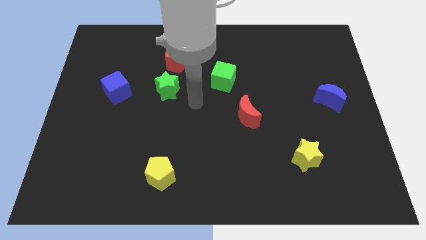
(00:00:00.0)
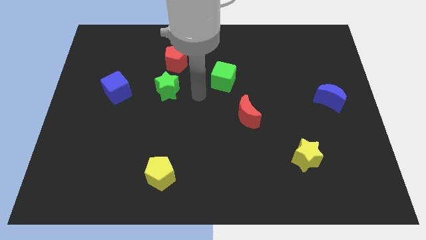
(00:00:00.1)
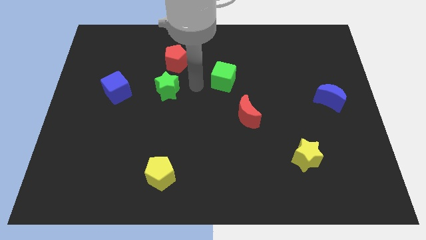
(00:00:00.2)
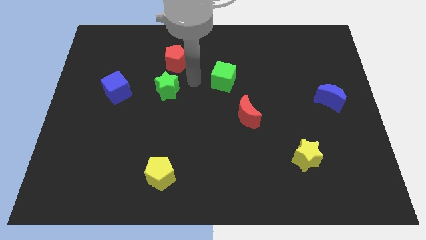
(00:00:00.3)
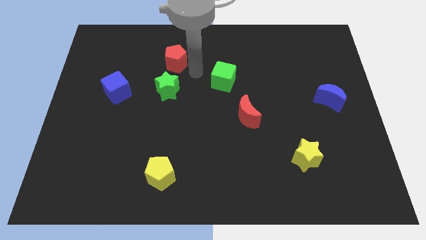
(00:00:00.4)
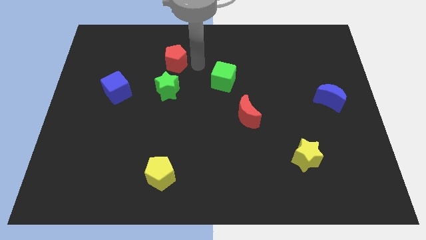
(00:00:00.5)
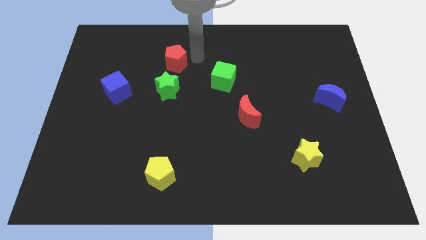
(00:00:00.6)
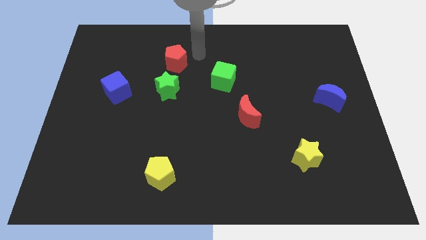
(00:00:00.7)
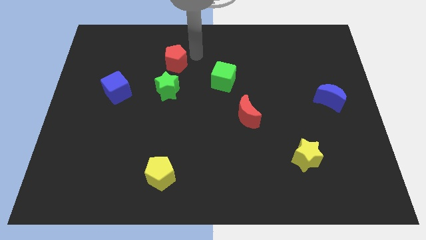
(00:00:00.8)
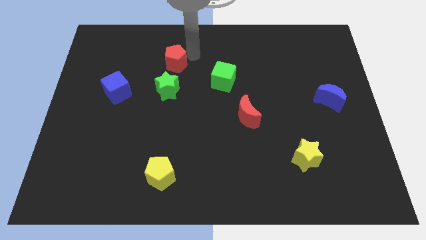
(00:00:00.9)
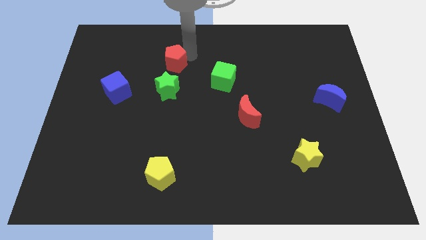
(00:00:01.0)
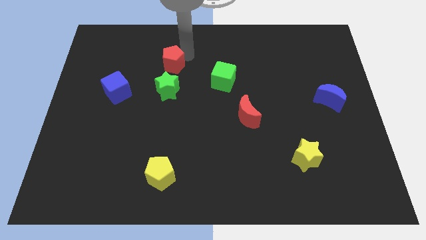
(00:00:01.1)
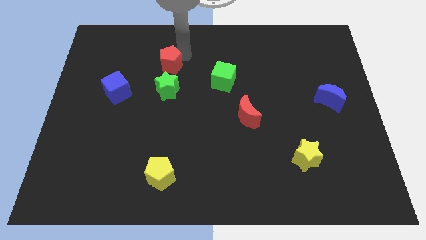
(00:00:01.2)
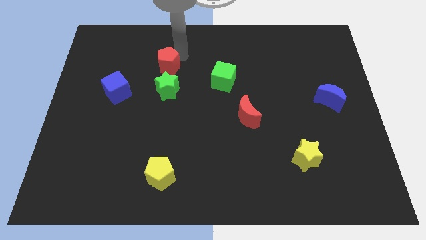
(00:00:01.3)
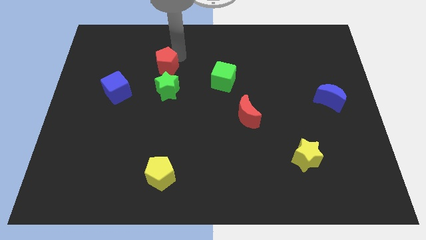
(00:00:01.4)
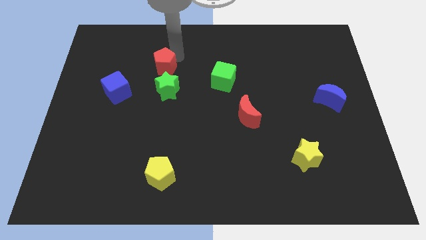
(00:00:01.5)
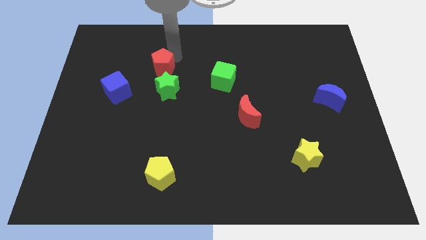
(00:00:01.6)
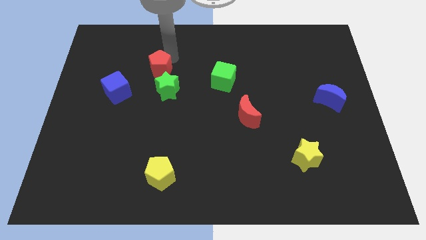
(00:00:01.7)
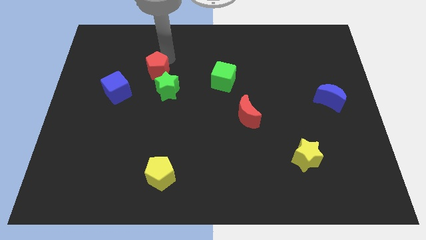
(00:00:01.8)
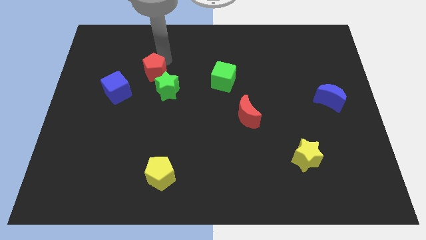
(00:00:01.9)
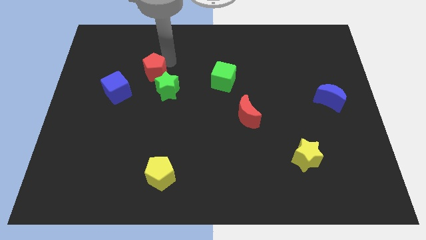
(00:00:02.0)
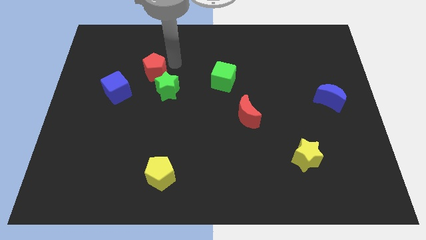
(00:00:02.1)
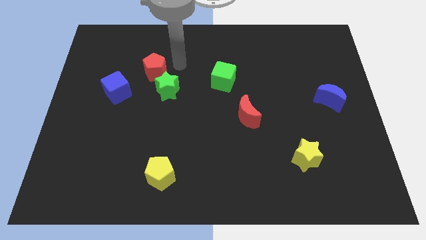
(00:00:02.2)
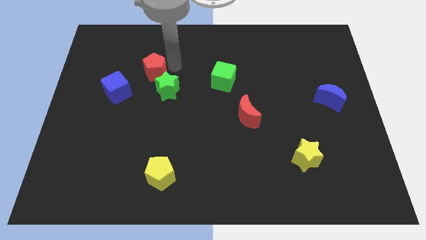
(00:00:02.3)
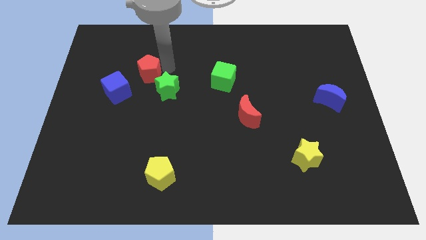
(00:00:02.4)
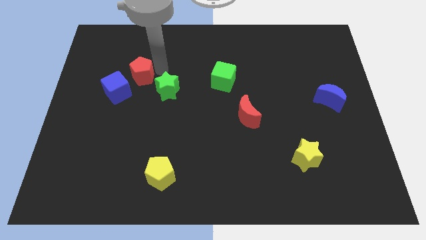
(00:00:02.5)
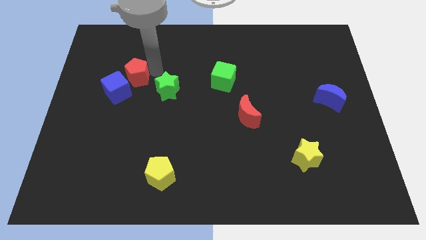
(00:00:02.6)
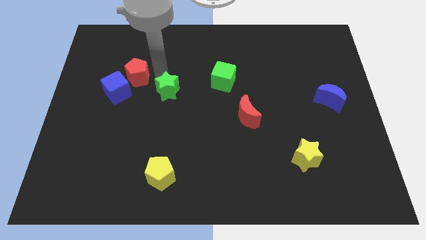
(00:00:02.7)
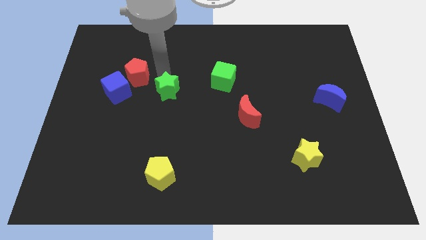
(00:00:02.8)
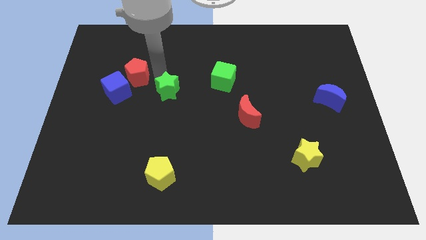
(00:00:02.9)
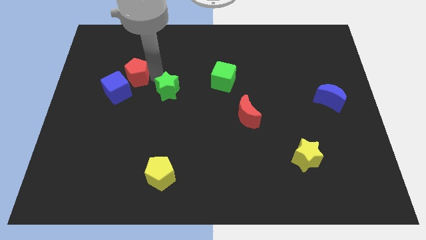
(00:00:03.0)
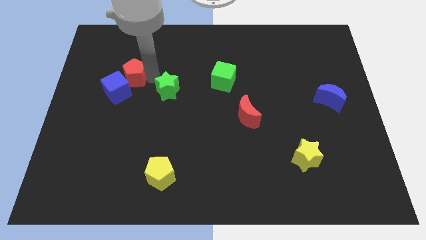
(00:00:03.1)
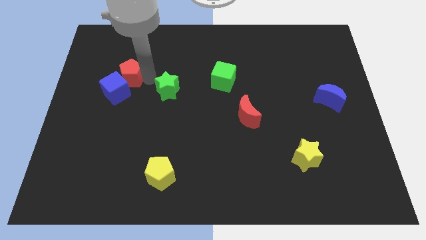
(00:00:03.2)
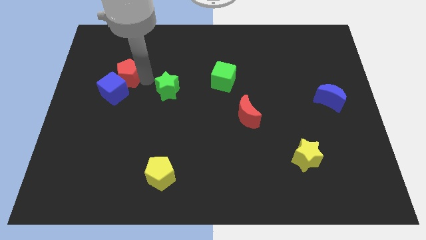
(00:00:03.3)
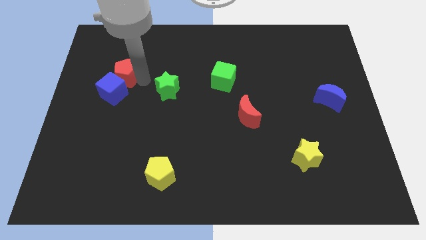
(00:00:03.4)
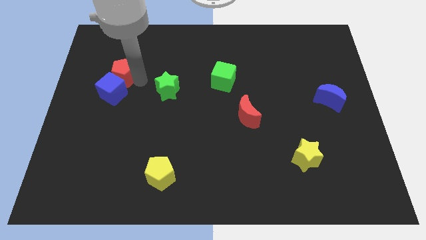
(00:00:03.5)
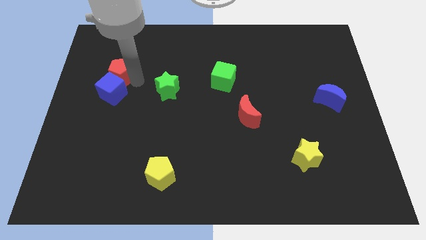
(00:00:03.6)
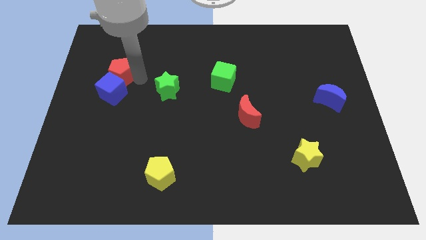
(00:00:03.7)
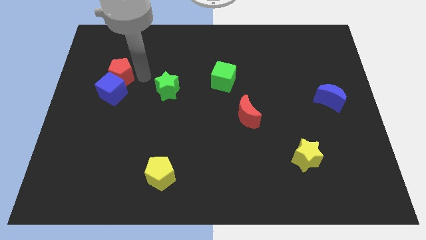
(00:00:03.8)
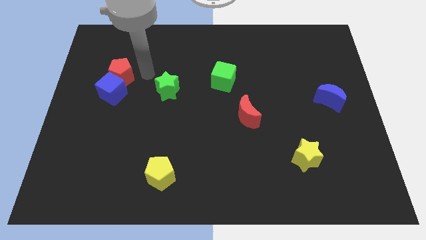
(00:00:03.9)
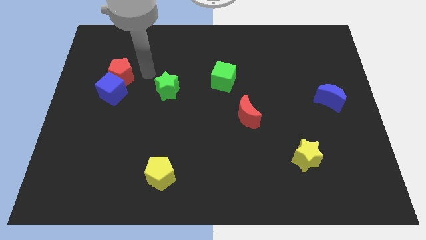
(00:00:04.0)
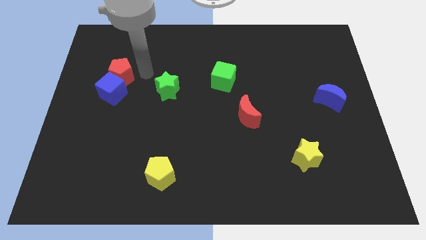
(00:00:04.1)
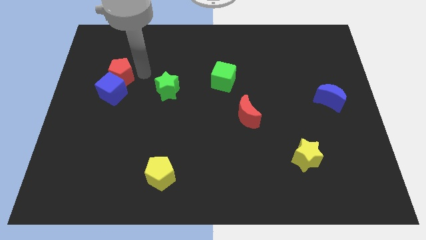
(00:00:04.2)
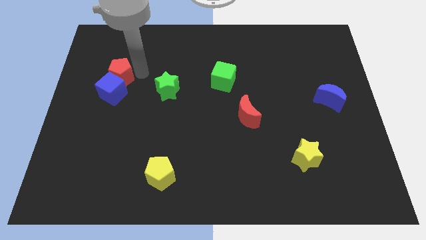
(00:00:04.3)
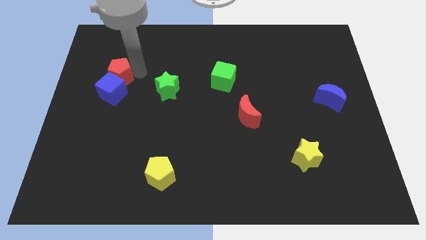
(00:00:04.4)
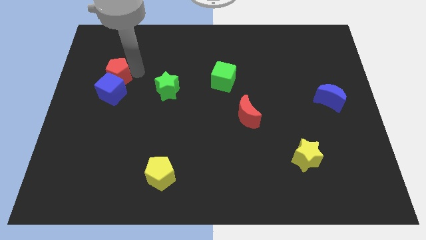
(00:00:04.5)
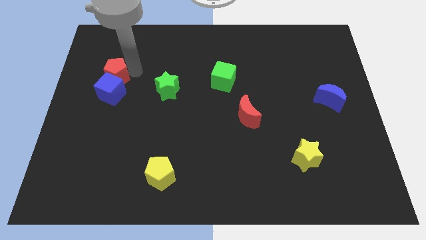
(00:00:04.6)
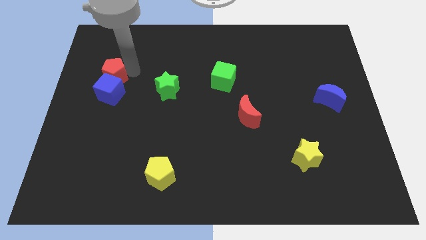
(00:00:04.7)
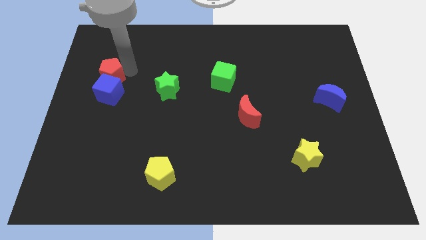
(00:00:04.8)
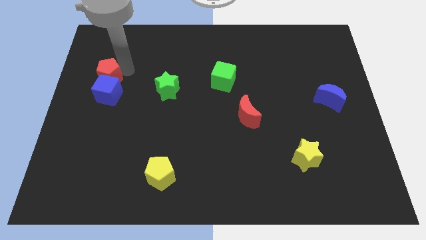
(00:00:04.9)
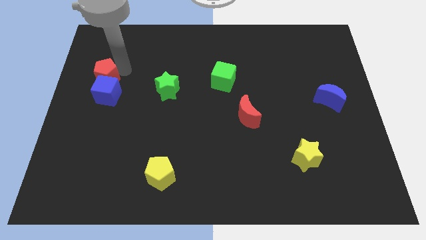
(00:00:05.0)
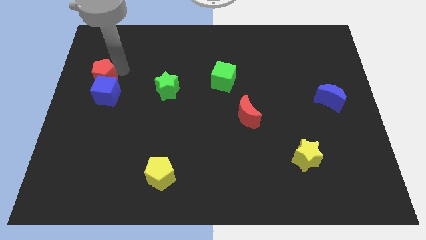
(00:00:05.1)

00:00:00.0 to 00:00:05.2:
slide the red pentagon to the center left

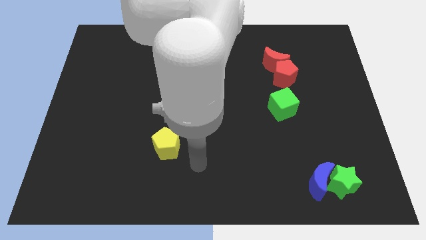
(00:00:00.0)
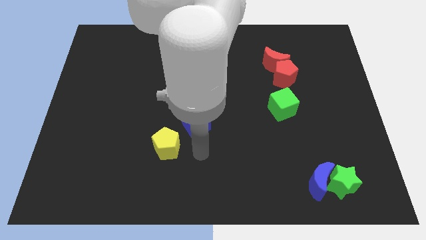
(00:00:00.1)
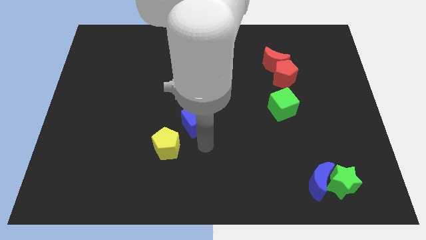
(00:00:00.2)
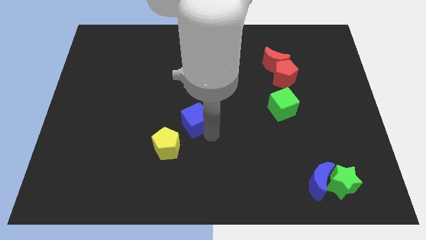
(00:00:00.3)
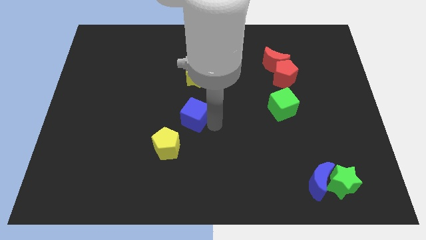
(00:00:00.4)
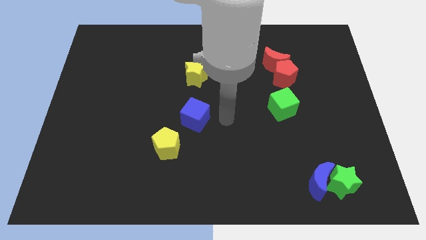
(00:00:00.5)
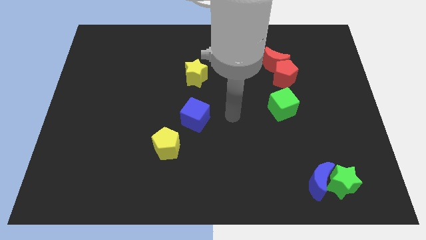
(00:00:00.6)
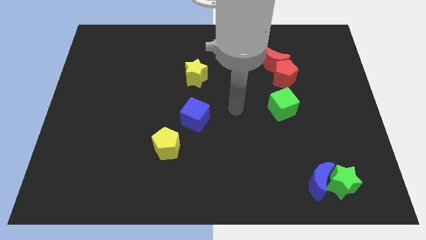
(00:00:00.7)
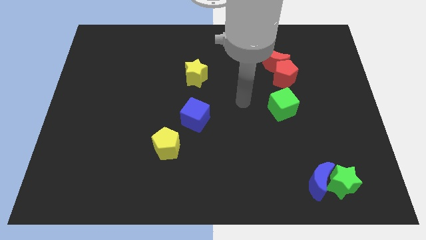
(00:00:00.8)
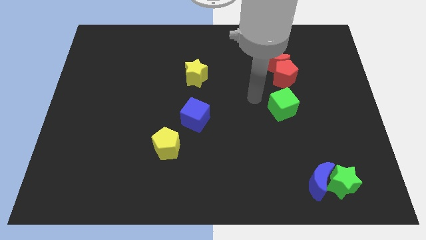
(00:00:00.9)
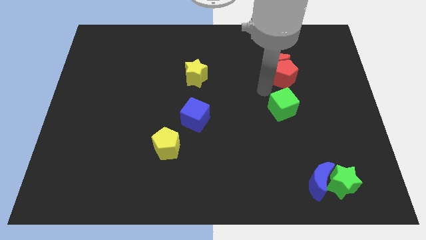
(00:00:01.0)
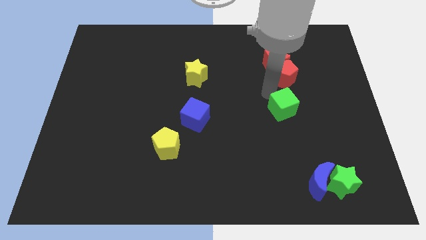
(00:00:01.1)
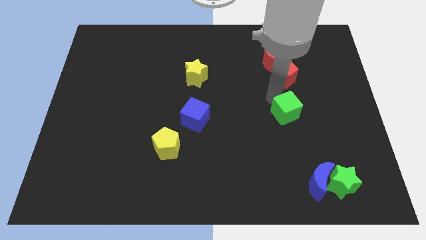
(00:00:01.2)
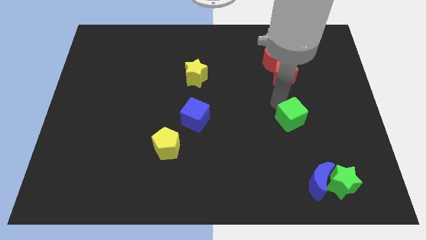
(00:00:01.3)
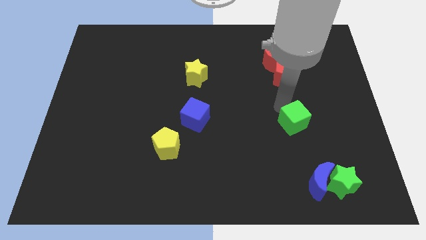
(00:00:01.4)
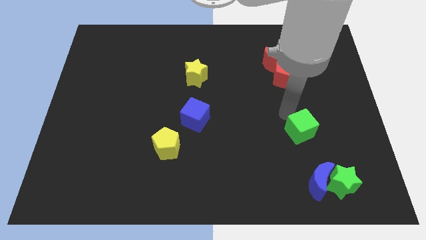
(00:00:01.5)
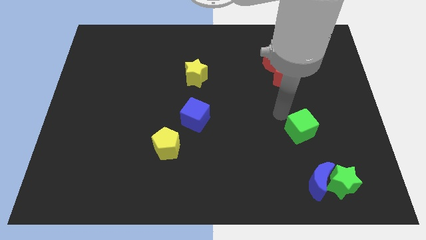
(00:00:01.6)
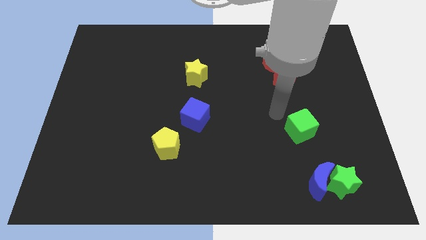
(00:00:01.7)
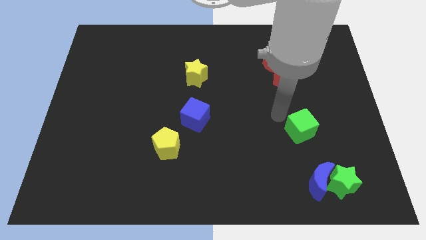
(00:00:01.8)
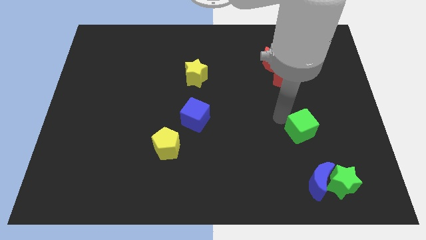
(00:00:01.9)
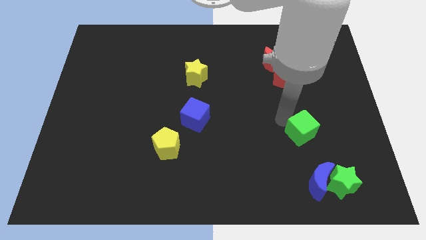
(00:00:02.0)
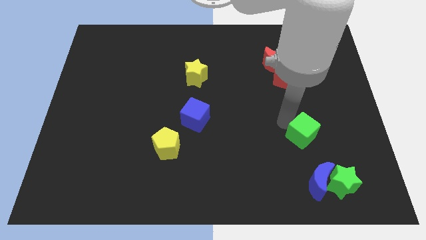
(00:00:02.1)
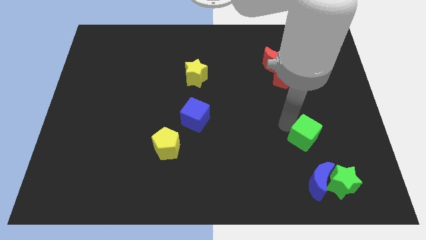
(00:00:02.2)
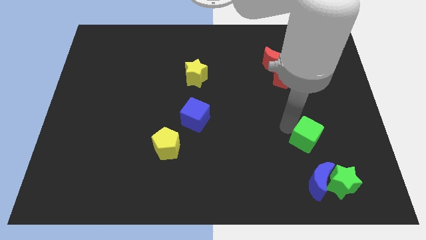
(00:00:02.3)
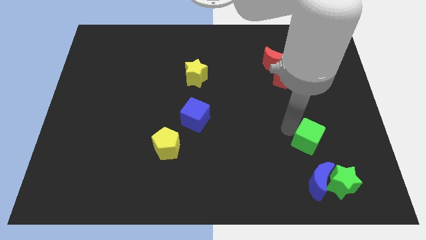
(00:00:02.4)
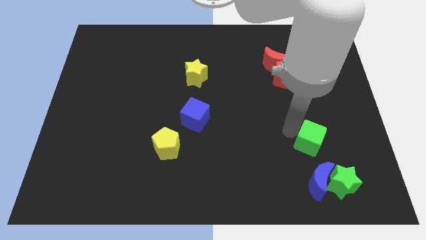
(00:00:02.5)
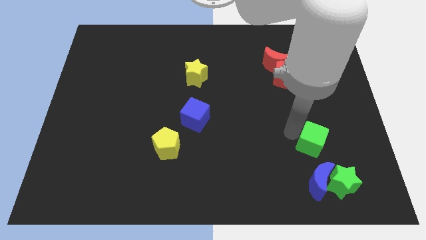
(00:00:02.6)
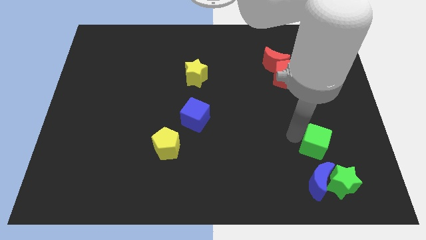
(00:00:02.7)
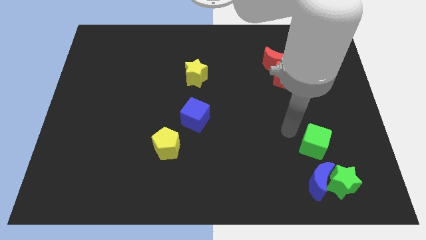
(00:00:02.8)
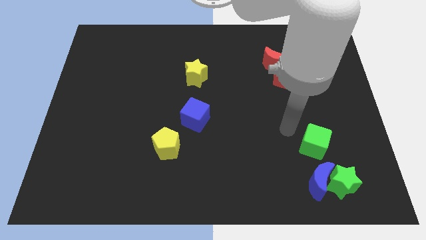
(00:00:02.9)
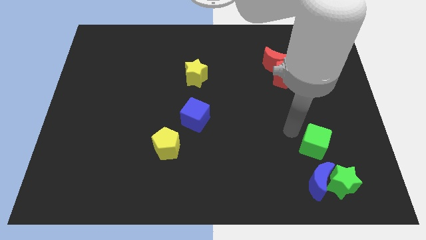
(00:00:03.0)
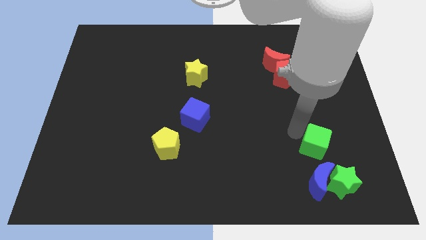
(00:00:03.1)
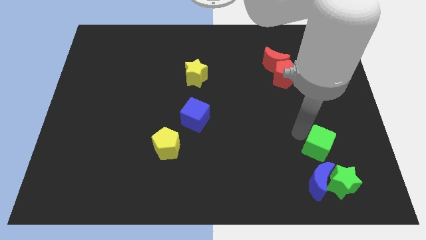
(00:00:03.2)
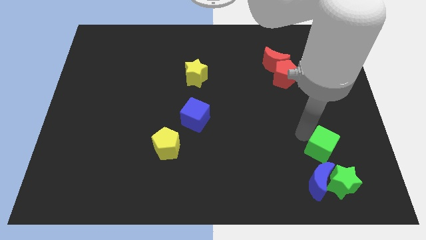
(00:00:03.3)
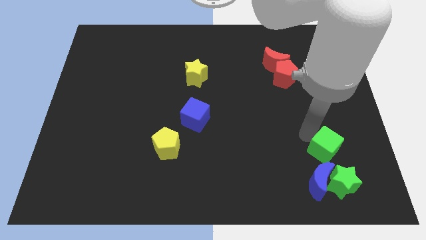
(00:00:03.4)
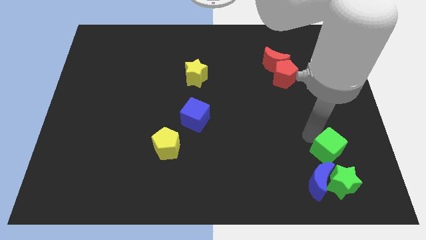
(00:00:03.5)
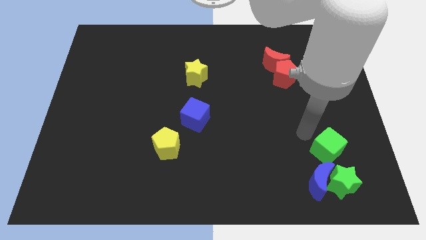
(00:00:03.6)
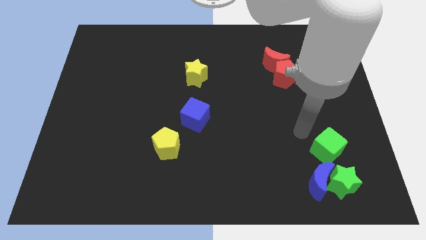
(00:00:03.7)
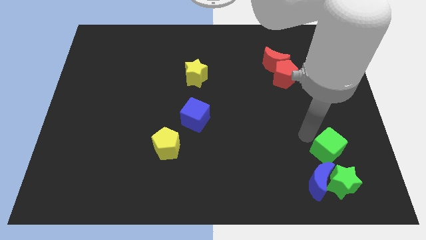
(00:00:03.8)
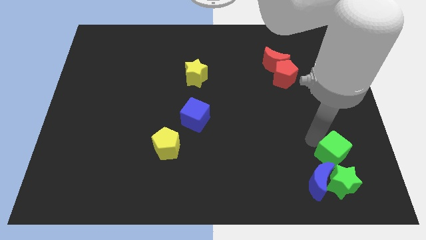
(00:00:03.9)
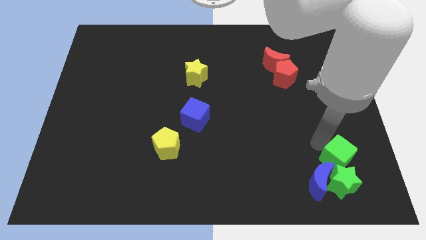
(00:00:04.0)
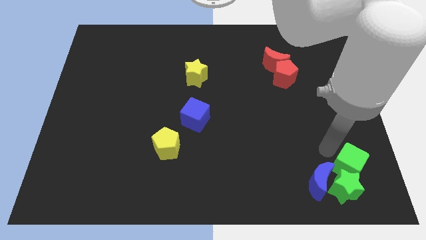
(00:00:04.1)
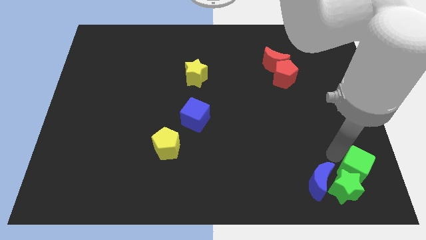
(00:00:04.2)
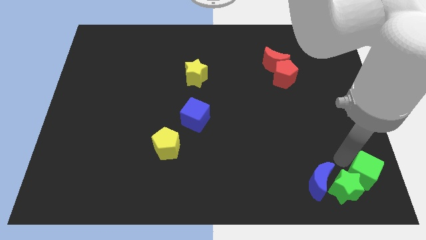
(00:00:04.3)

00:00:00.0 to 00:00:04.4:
move the green cube to the bottom right corner
